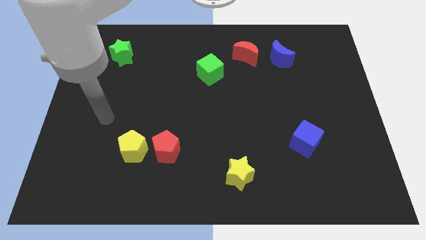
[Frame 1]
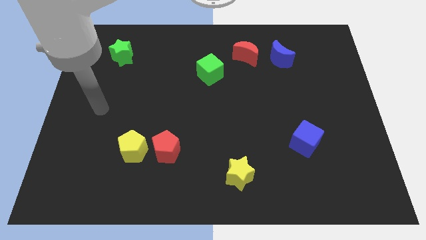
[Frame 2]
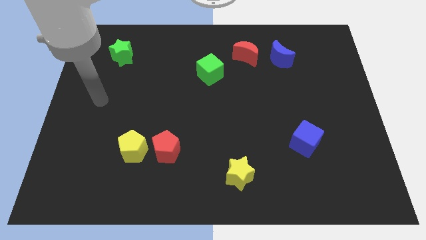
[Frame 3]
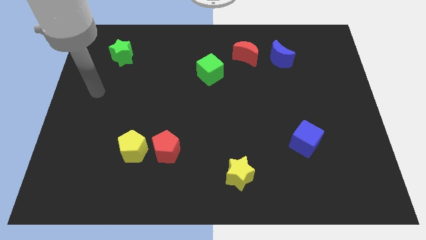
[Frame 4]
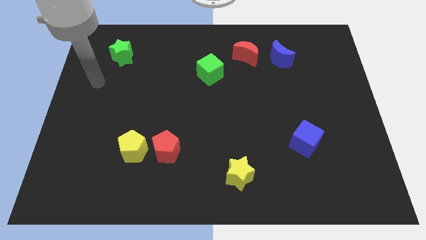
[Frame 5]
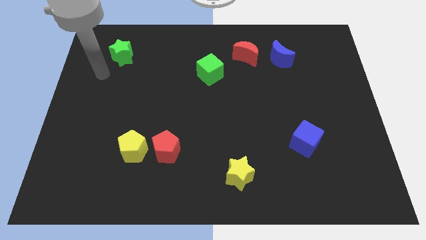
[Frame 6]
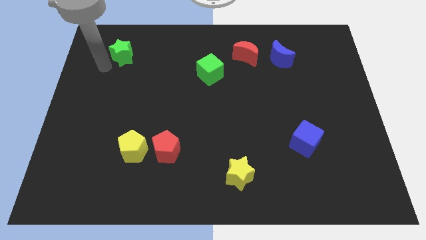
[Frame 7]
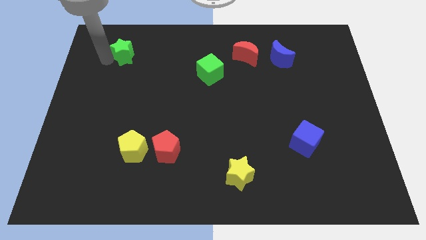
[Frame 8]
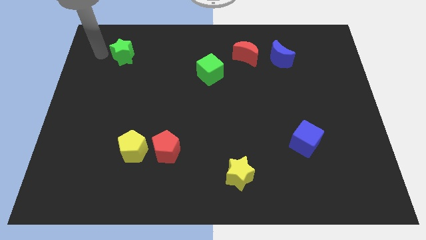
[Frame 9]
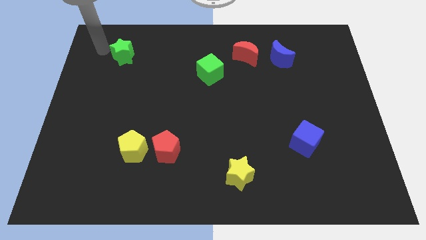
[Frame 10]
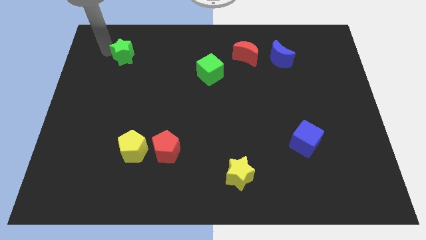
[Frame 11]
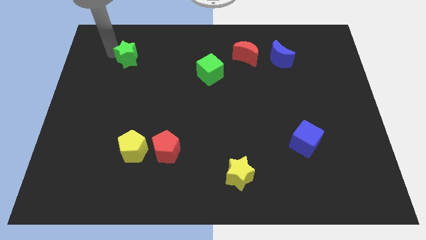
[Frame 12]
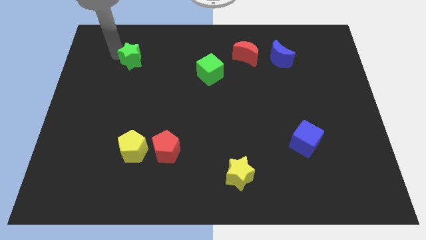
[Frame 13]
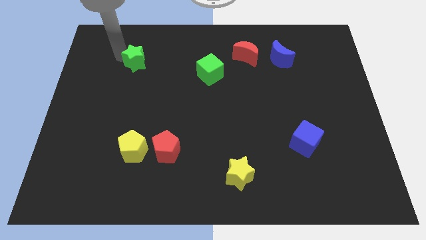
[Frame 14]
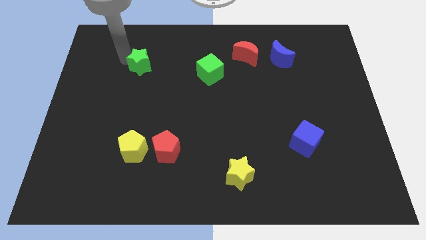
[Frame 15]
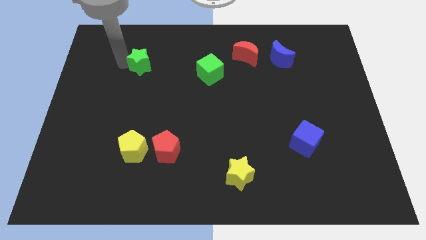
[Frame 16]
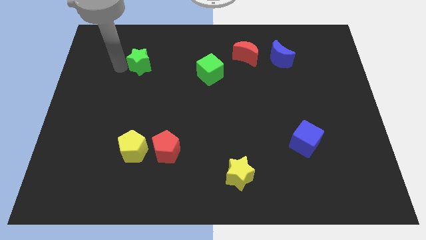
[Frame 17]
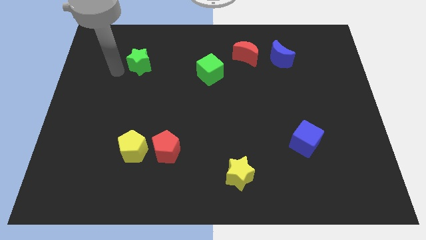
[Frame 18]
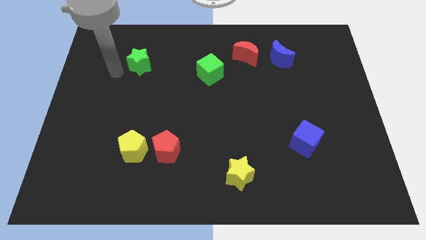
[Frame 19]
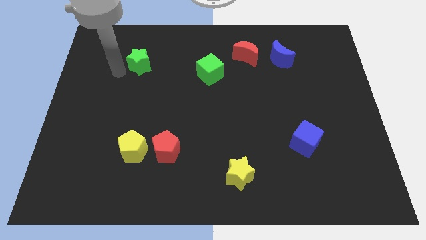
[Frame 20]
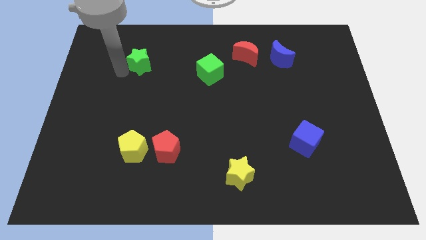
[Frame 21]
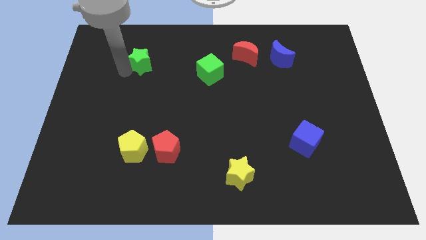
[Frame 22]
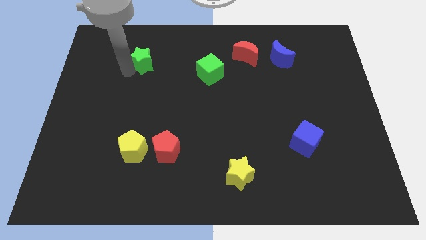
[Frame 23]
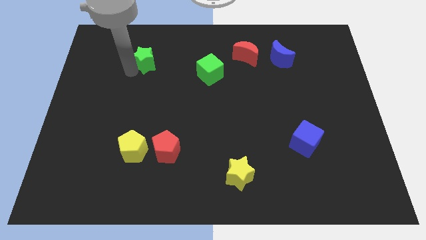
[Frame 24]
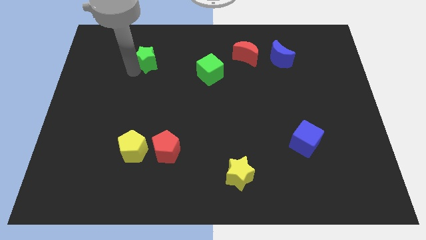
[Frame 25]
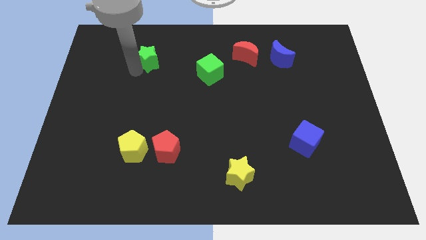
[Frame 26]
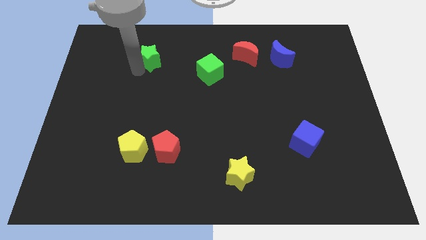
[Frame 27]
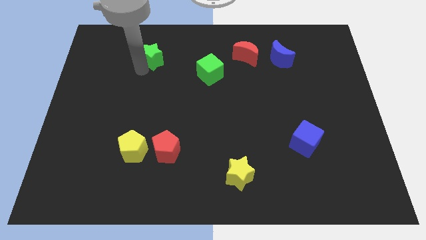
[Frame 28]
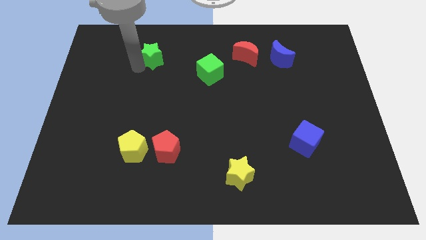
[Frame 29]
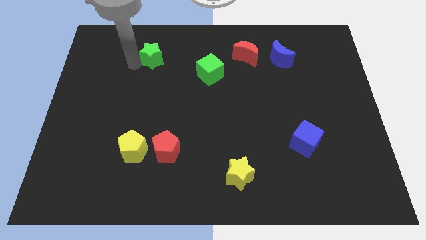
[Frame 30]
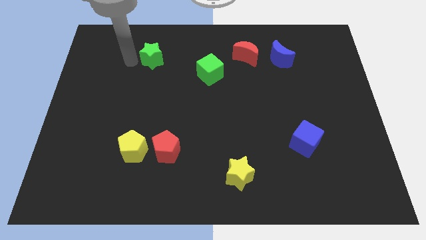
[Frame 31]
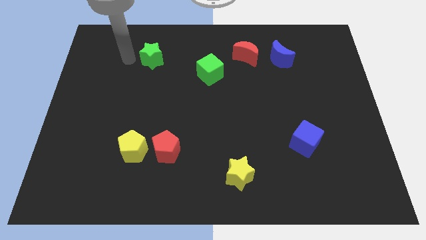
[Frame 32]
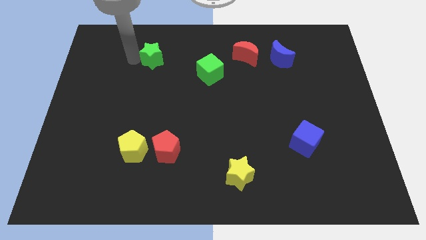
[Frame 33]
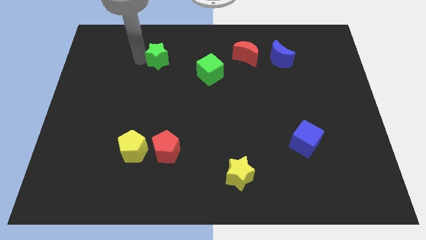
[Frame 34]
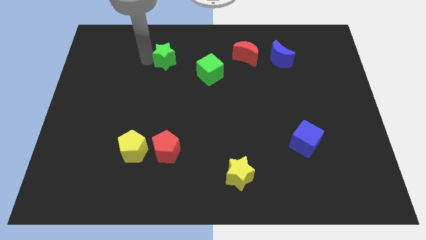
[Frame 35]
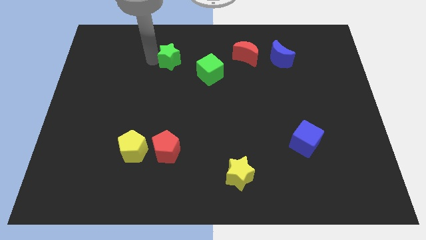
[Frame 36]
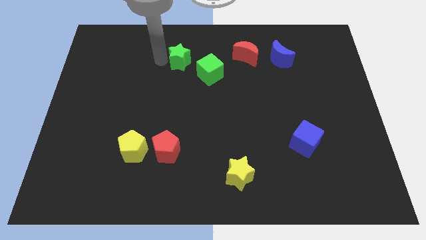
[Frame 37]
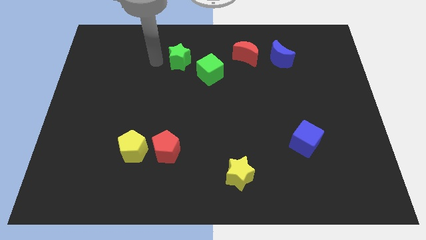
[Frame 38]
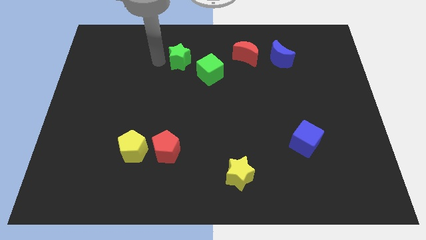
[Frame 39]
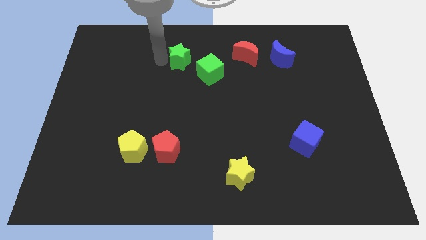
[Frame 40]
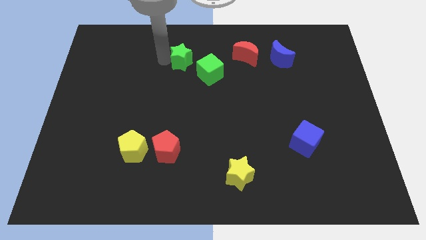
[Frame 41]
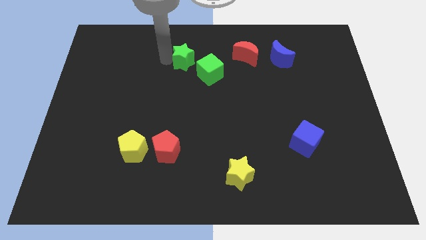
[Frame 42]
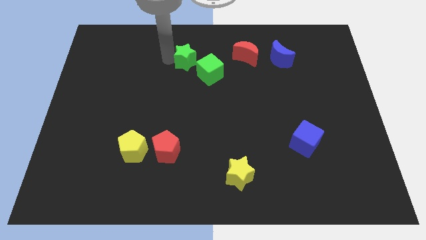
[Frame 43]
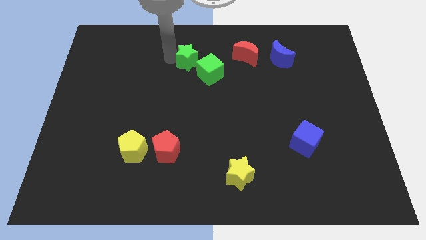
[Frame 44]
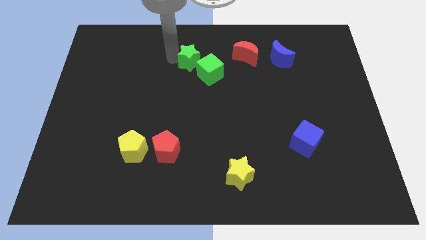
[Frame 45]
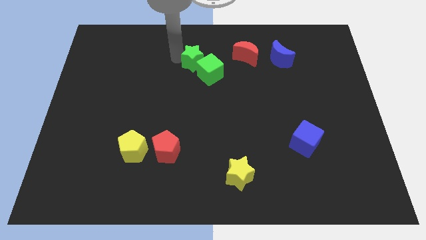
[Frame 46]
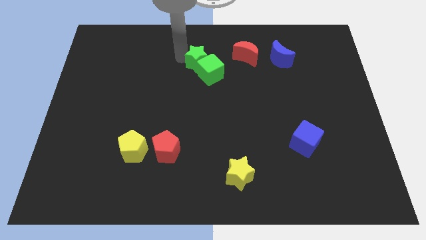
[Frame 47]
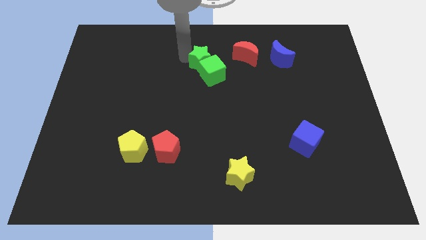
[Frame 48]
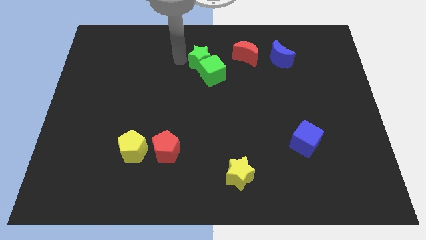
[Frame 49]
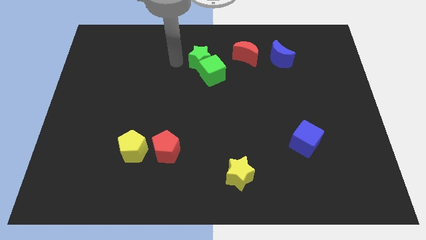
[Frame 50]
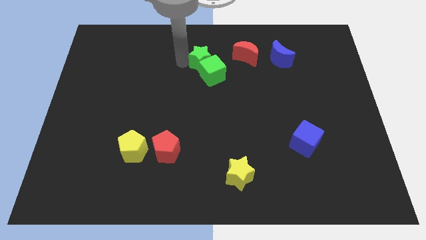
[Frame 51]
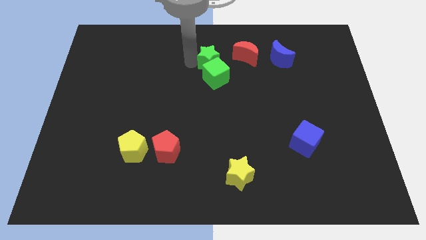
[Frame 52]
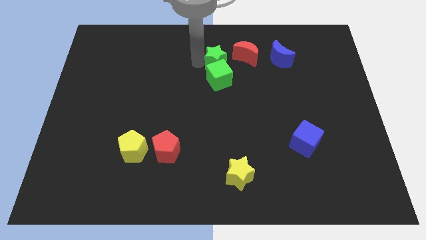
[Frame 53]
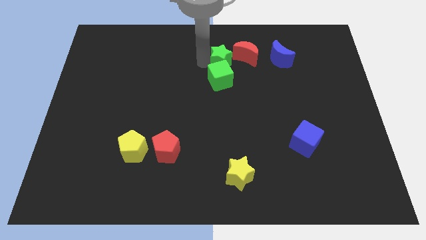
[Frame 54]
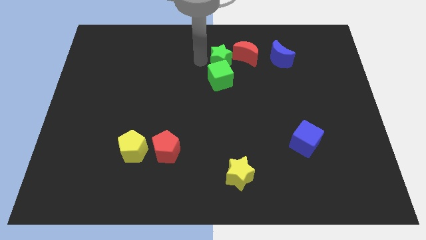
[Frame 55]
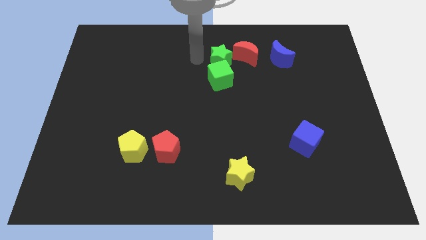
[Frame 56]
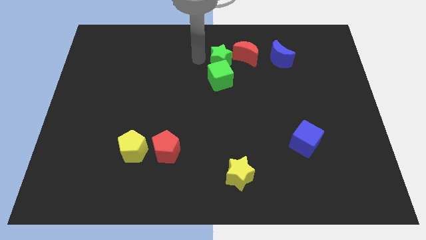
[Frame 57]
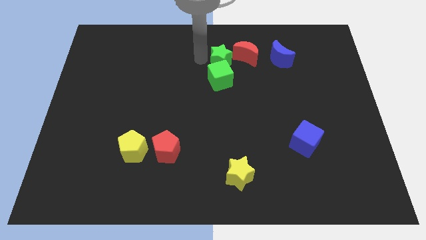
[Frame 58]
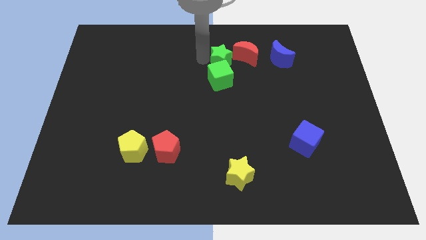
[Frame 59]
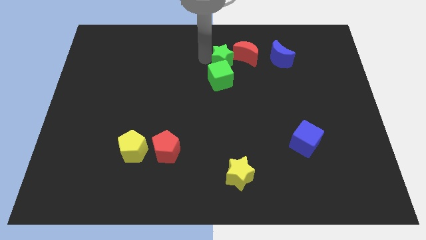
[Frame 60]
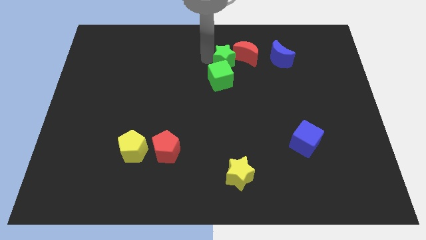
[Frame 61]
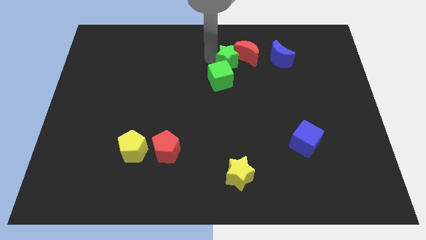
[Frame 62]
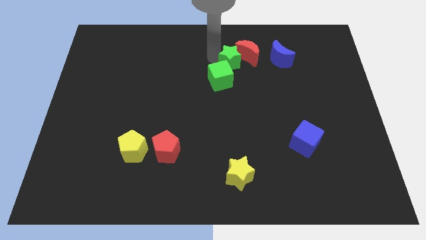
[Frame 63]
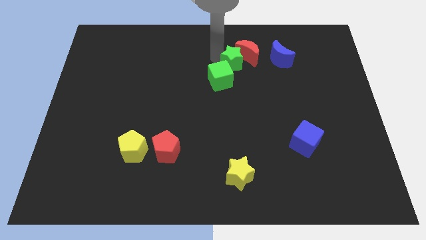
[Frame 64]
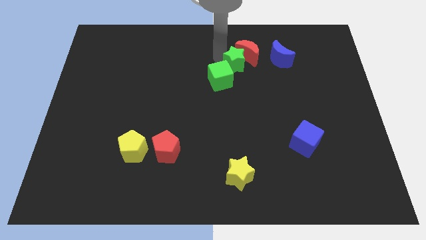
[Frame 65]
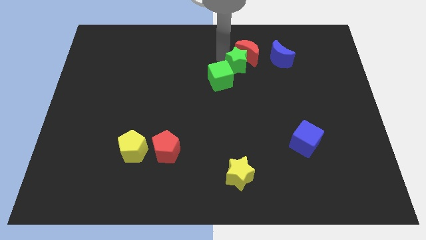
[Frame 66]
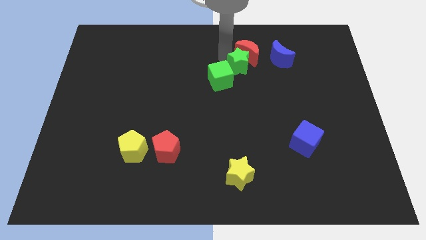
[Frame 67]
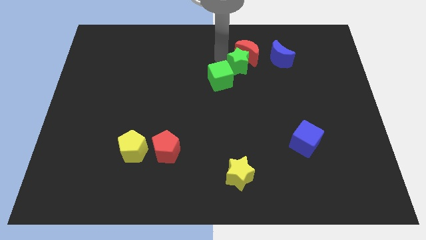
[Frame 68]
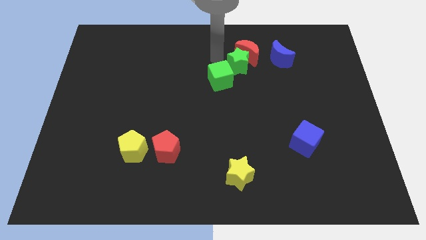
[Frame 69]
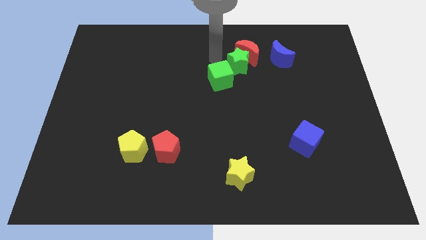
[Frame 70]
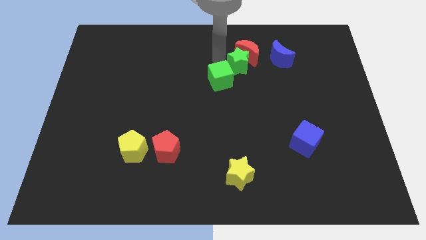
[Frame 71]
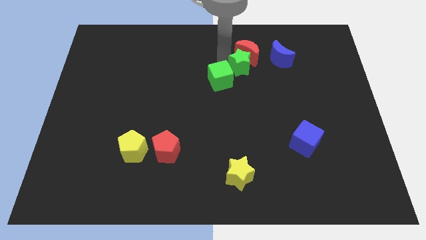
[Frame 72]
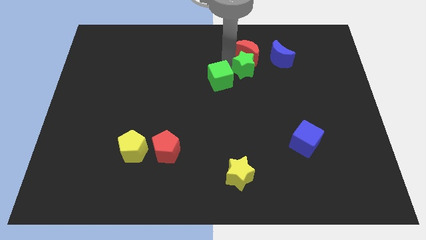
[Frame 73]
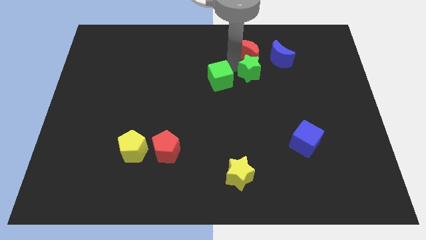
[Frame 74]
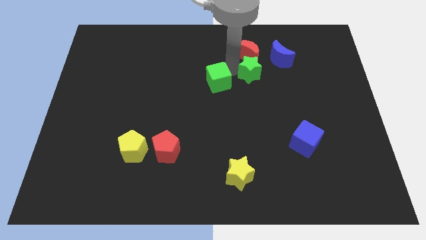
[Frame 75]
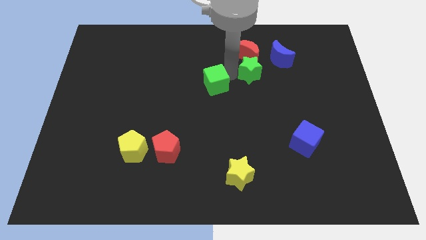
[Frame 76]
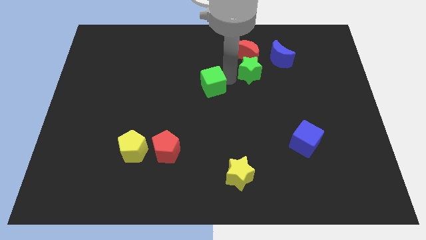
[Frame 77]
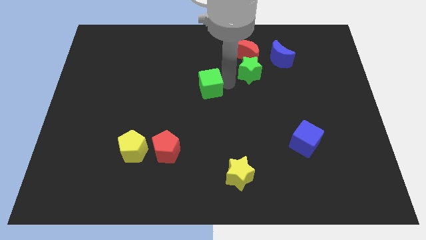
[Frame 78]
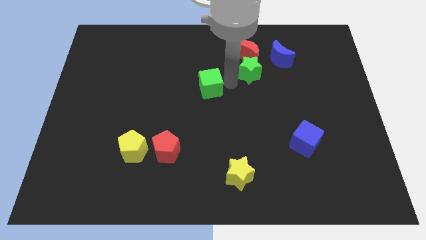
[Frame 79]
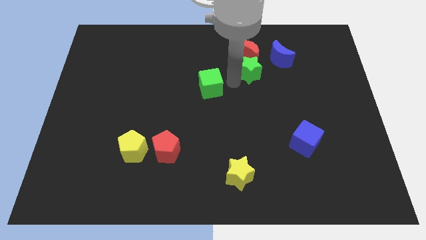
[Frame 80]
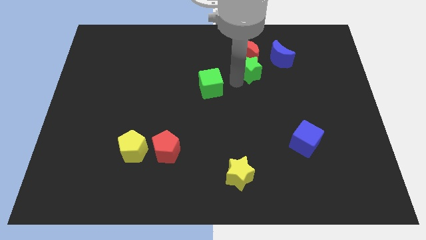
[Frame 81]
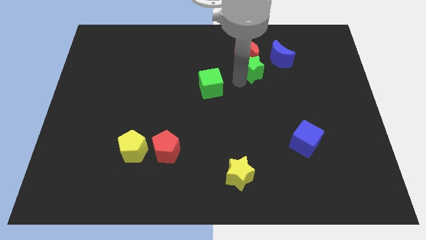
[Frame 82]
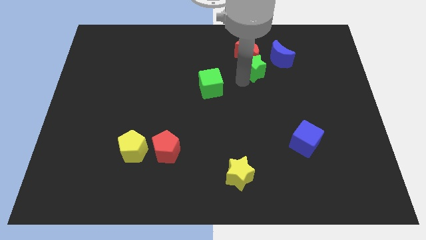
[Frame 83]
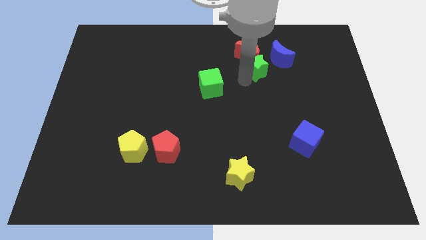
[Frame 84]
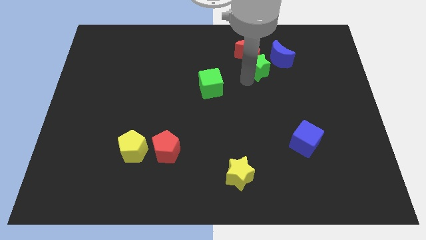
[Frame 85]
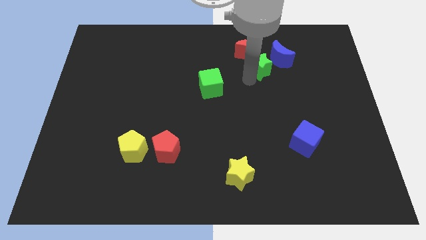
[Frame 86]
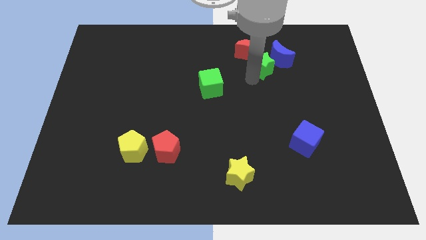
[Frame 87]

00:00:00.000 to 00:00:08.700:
push the green star next to the blue moon
